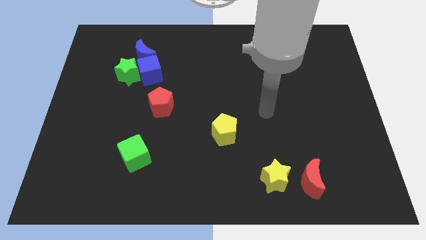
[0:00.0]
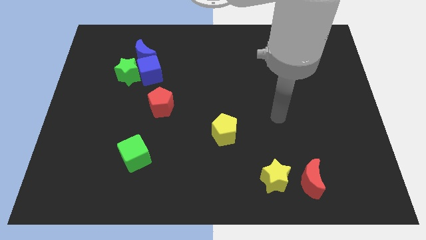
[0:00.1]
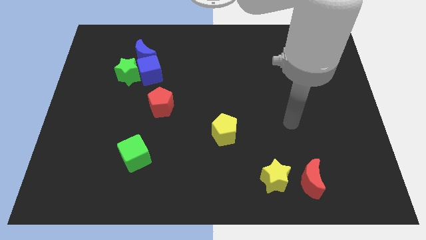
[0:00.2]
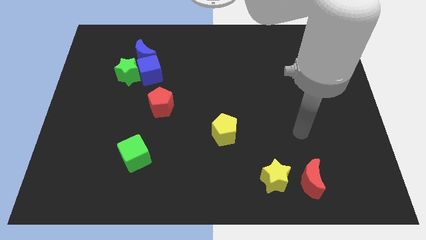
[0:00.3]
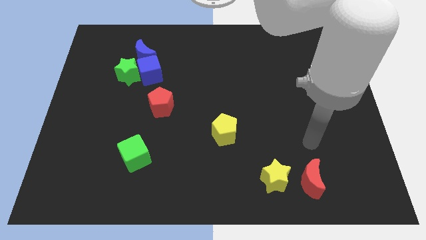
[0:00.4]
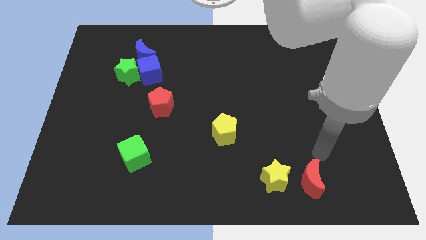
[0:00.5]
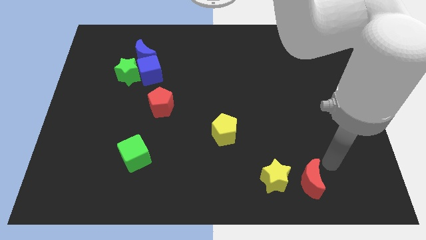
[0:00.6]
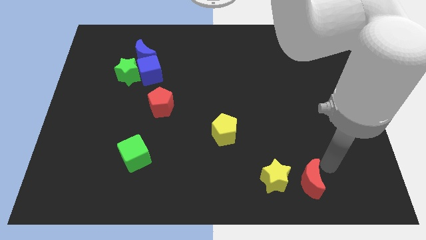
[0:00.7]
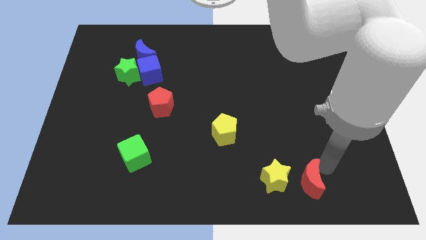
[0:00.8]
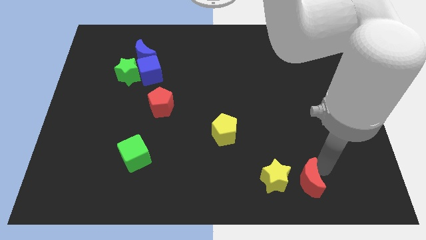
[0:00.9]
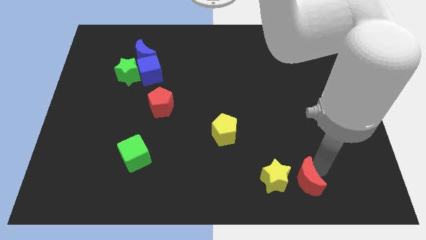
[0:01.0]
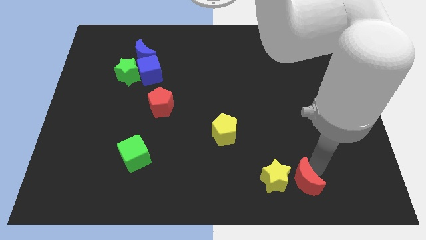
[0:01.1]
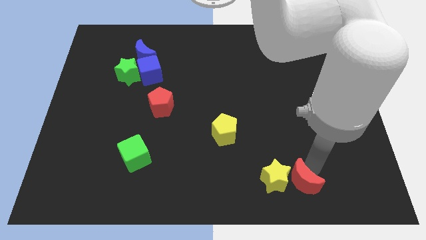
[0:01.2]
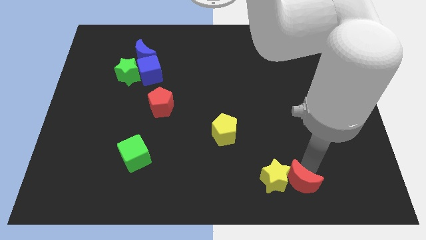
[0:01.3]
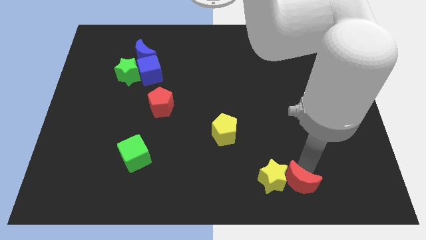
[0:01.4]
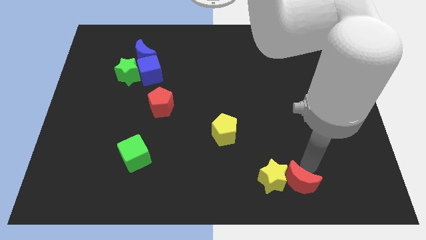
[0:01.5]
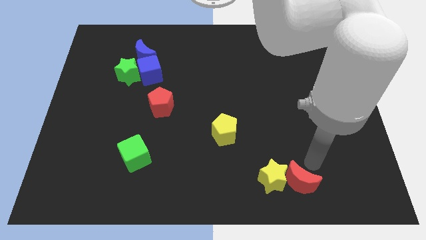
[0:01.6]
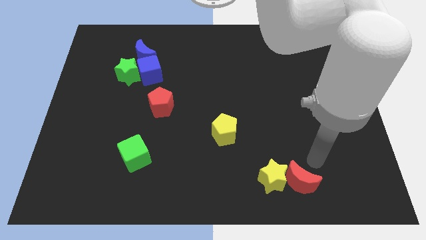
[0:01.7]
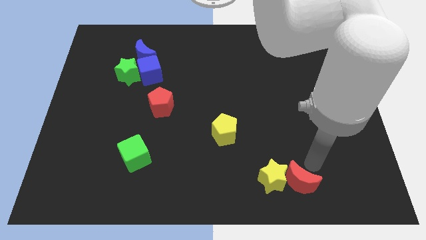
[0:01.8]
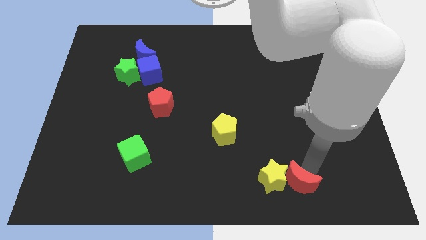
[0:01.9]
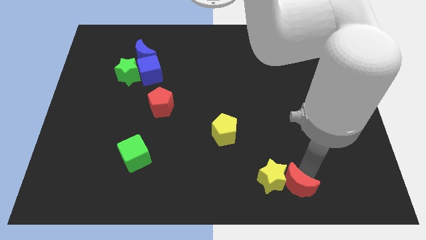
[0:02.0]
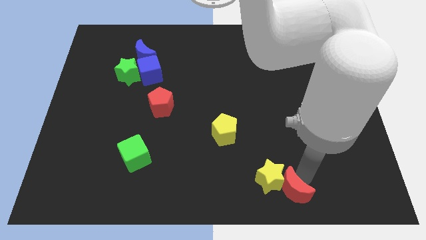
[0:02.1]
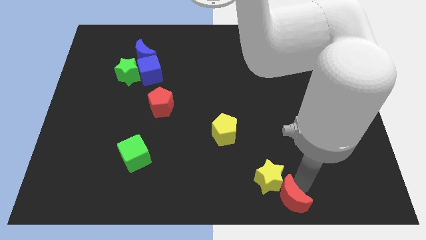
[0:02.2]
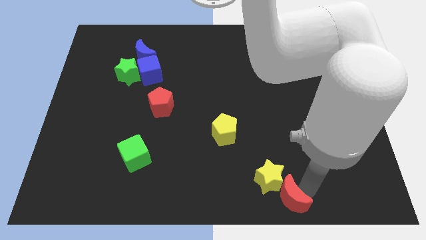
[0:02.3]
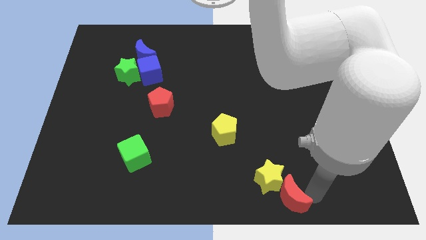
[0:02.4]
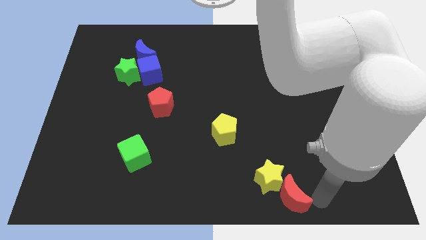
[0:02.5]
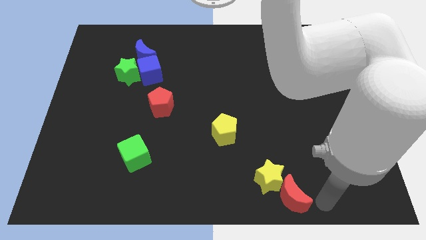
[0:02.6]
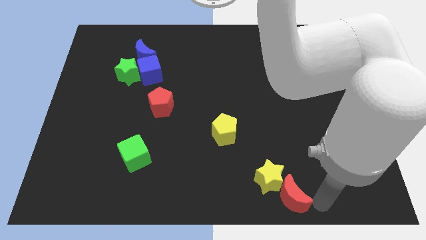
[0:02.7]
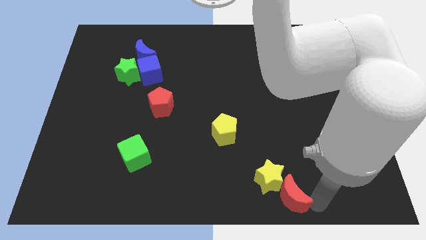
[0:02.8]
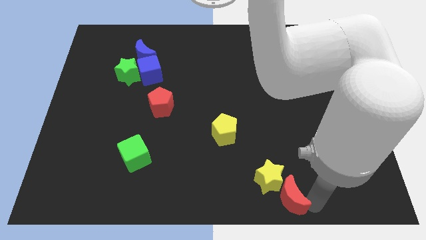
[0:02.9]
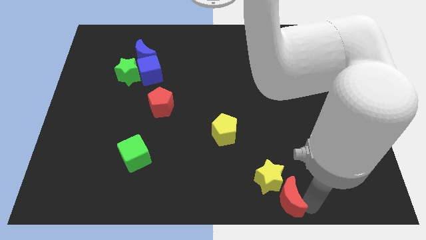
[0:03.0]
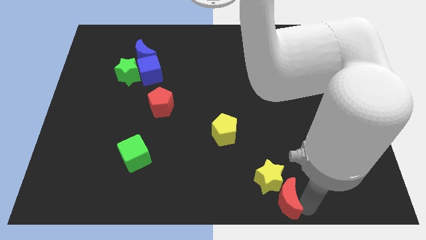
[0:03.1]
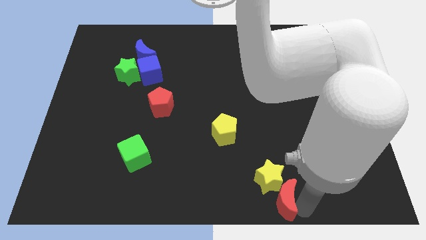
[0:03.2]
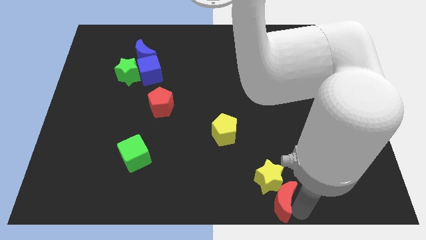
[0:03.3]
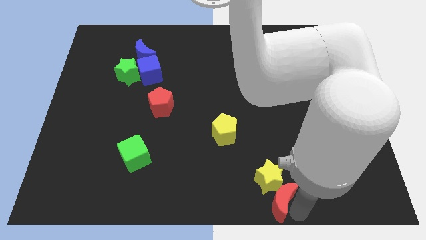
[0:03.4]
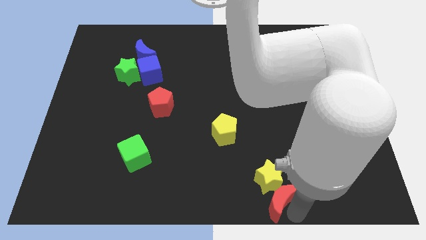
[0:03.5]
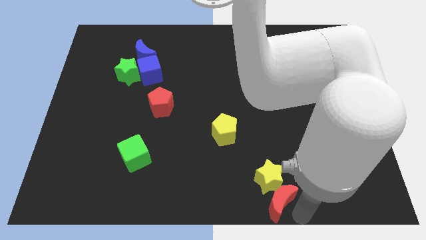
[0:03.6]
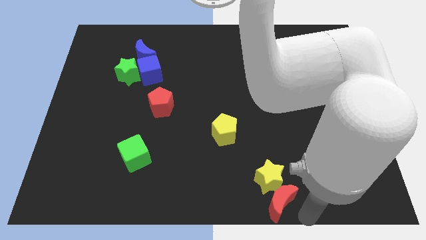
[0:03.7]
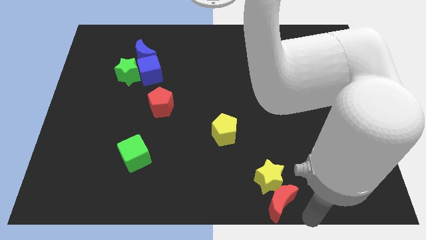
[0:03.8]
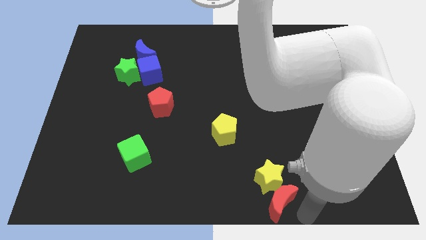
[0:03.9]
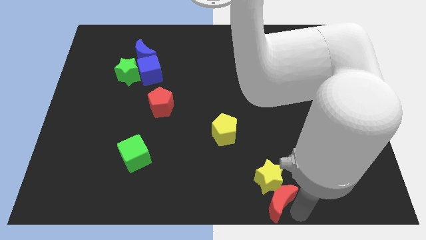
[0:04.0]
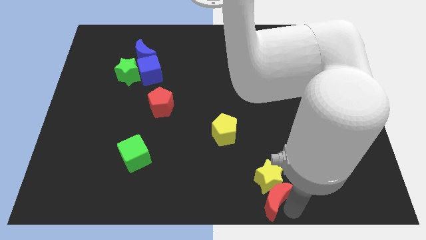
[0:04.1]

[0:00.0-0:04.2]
slightly push the red moon to the left

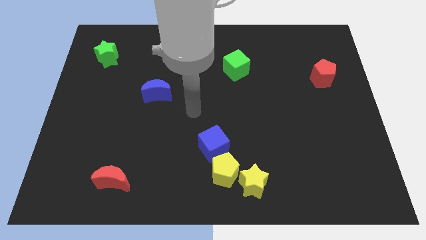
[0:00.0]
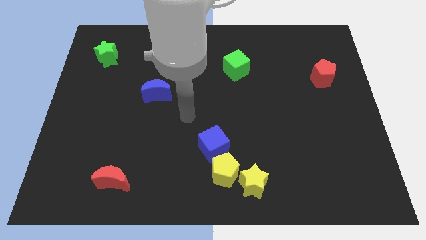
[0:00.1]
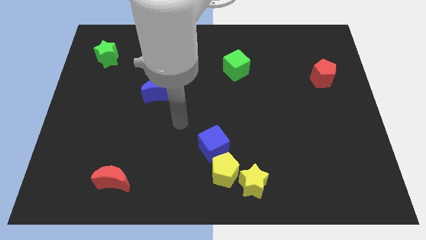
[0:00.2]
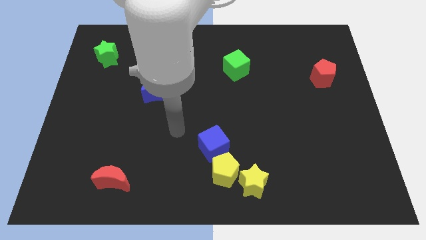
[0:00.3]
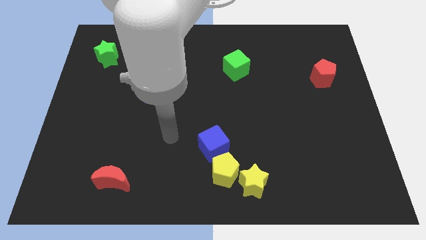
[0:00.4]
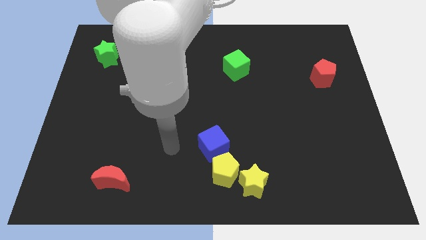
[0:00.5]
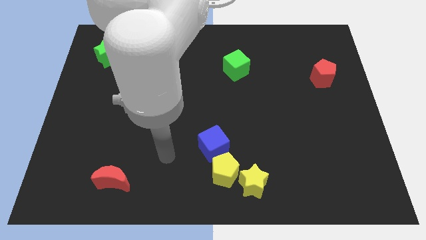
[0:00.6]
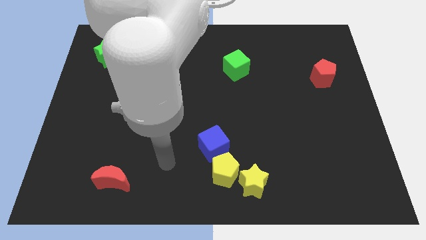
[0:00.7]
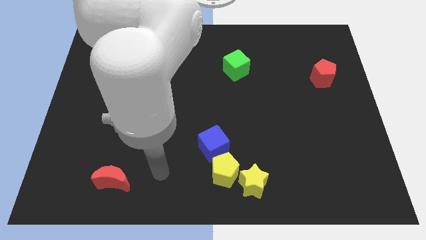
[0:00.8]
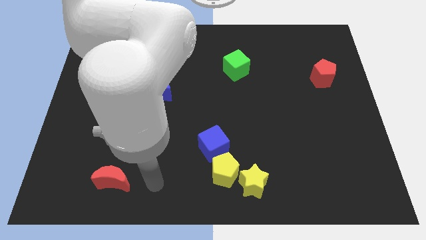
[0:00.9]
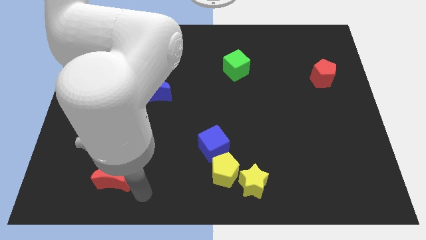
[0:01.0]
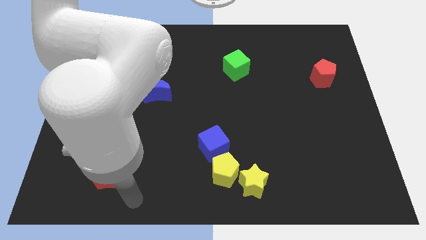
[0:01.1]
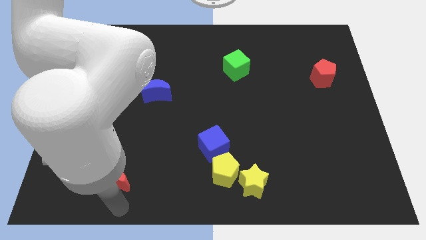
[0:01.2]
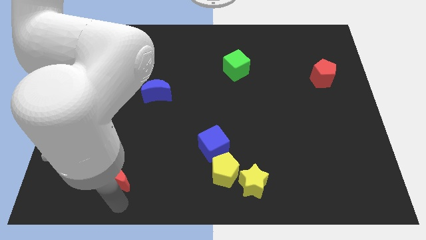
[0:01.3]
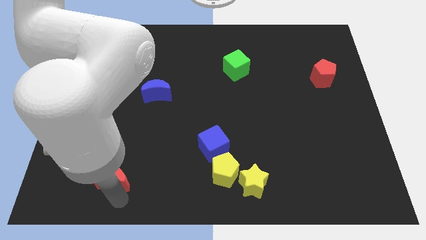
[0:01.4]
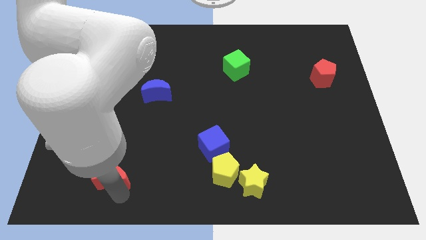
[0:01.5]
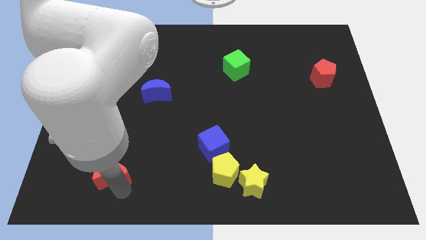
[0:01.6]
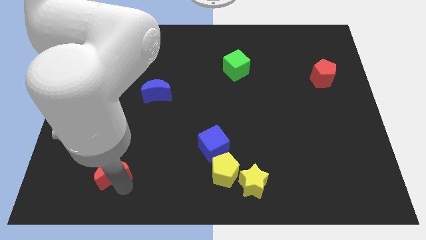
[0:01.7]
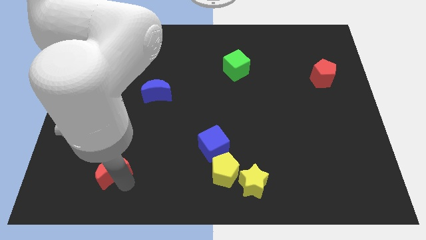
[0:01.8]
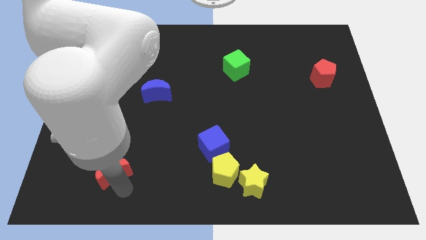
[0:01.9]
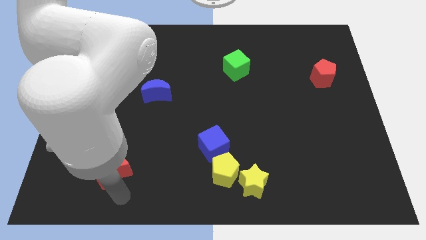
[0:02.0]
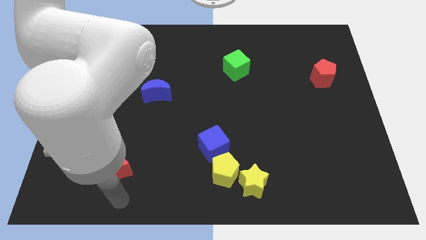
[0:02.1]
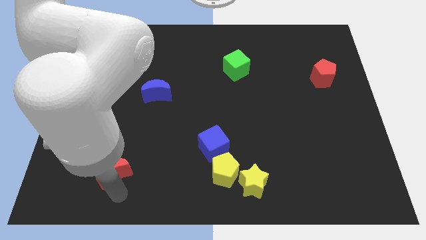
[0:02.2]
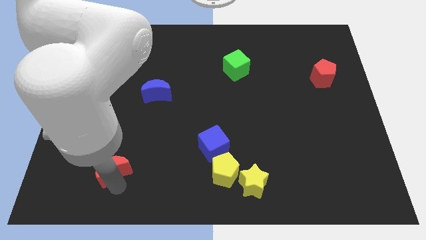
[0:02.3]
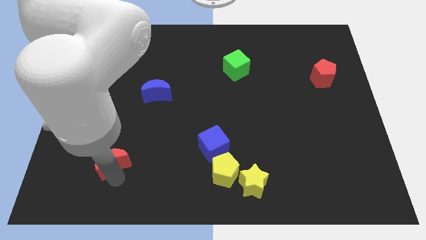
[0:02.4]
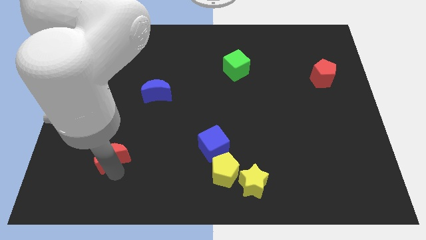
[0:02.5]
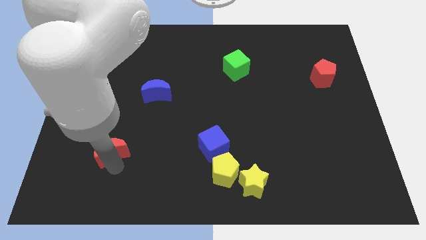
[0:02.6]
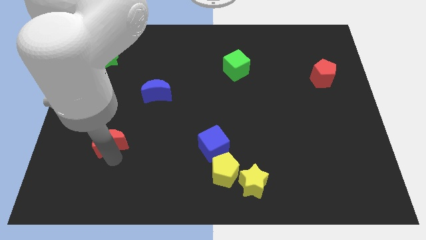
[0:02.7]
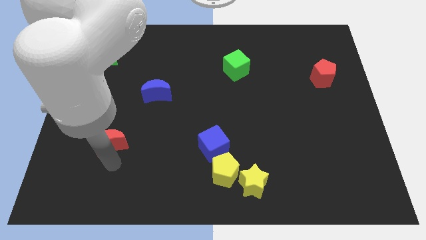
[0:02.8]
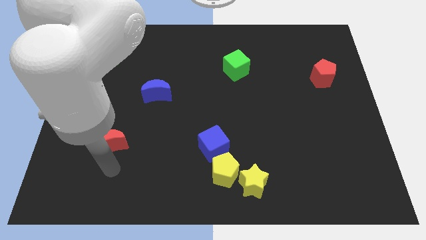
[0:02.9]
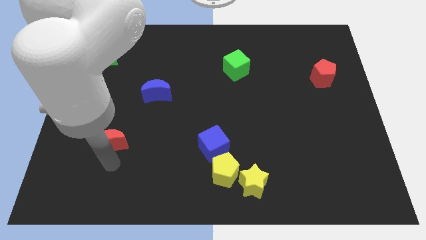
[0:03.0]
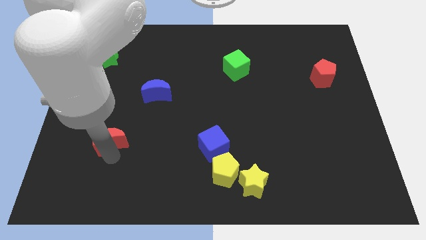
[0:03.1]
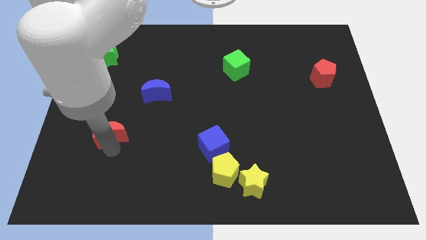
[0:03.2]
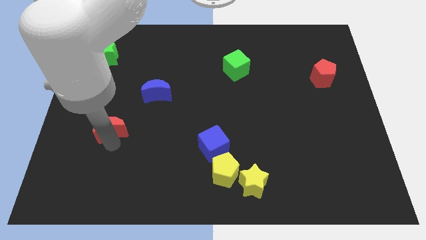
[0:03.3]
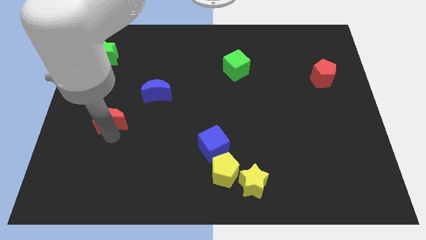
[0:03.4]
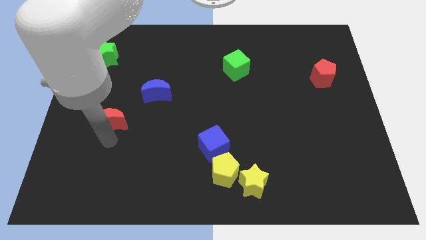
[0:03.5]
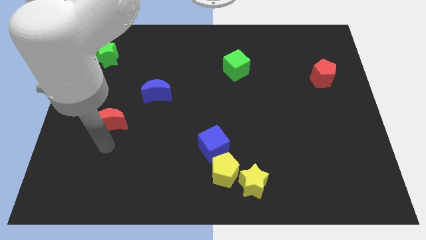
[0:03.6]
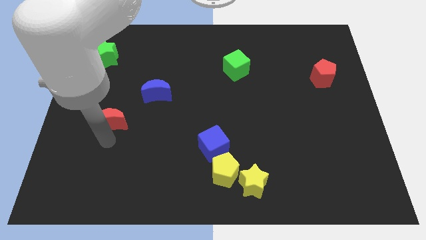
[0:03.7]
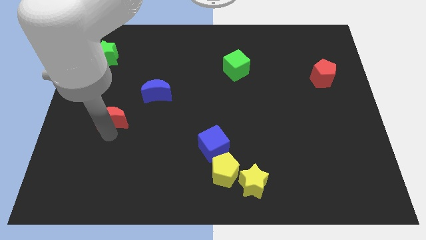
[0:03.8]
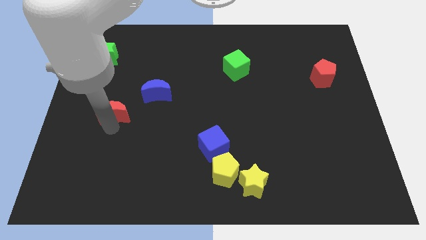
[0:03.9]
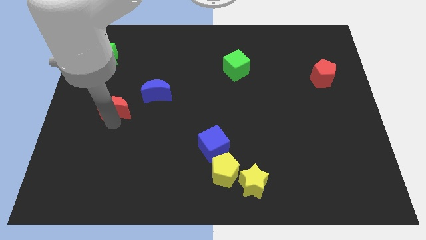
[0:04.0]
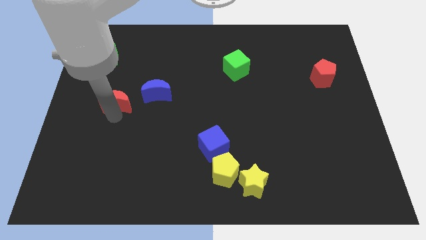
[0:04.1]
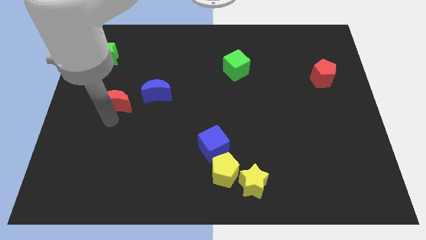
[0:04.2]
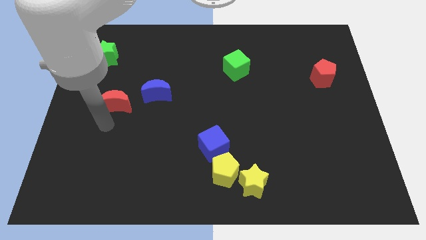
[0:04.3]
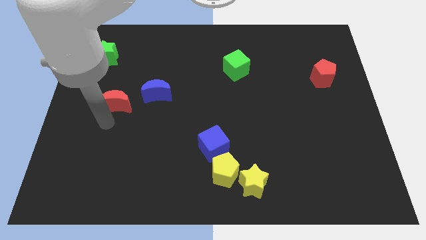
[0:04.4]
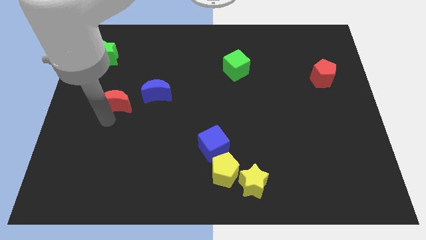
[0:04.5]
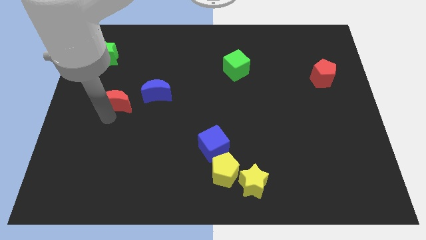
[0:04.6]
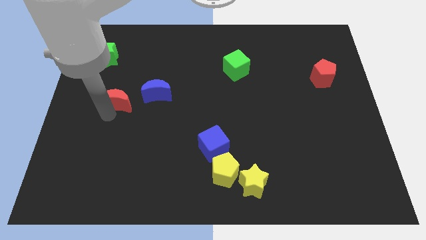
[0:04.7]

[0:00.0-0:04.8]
move the red moon upwards
